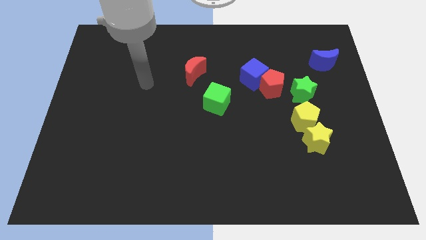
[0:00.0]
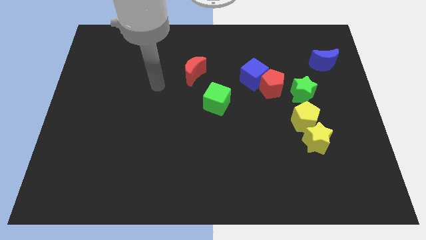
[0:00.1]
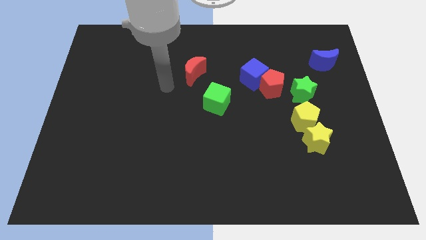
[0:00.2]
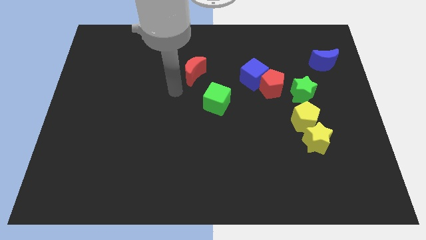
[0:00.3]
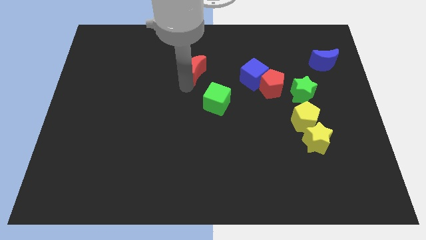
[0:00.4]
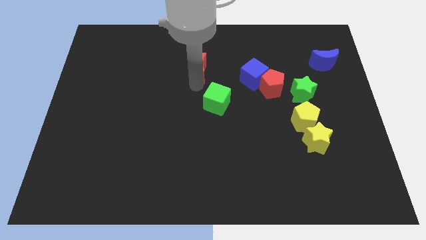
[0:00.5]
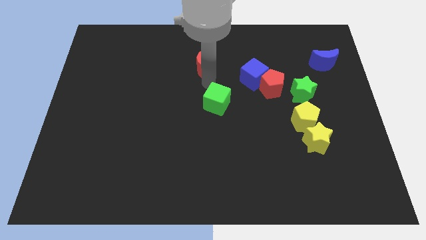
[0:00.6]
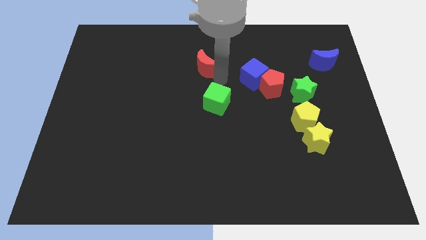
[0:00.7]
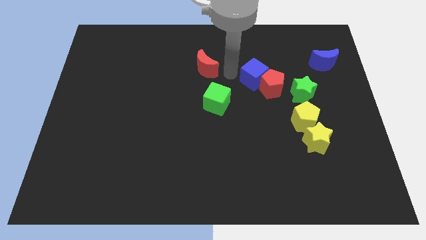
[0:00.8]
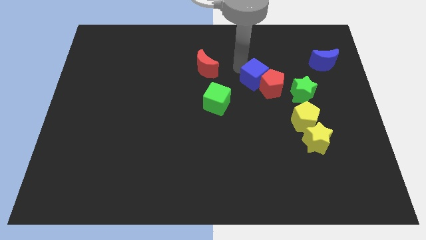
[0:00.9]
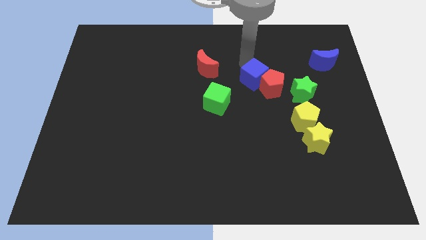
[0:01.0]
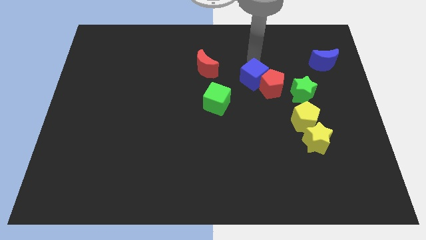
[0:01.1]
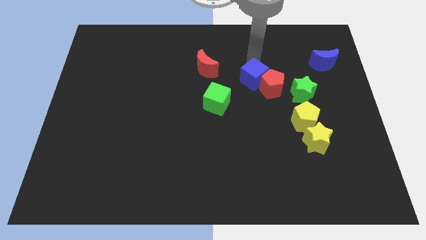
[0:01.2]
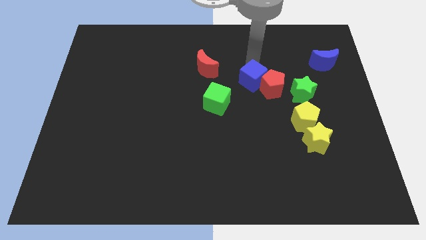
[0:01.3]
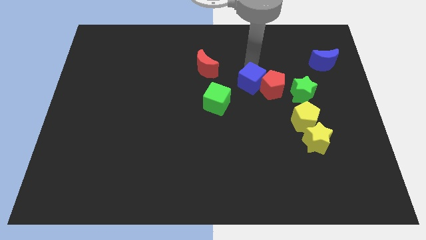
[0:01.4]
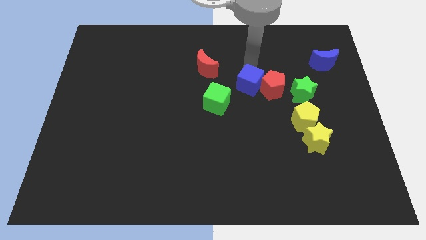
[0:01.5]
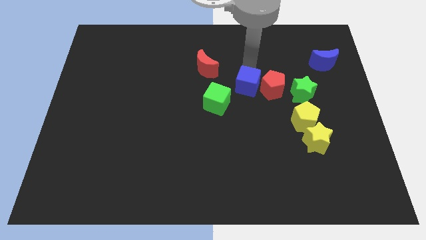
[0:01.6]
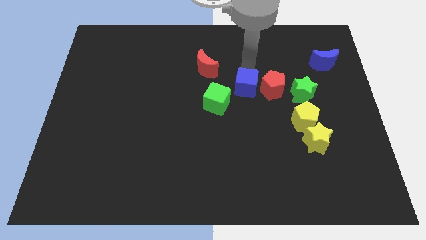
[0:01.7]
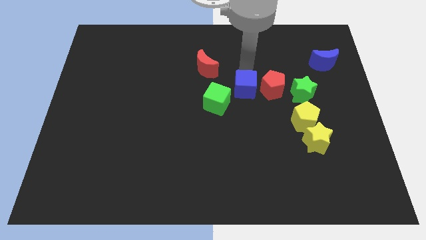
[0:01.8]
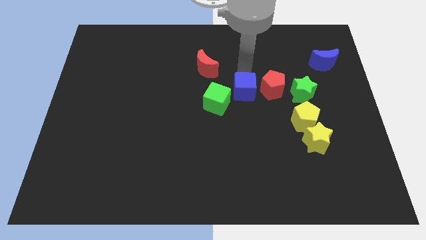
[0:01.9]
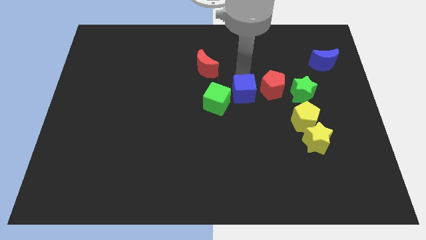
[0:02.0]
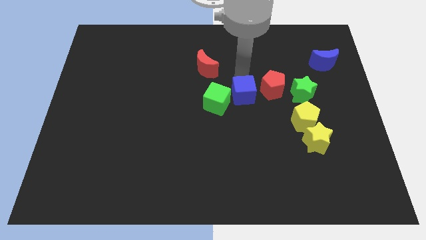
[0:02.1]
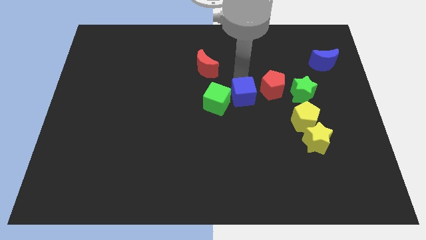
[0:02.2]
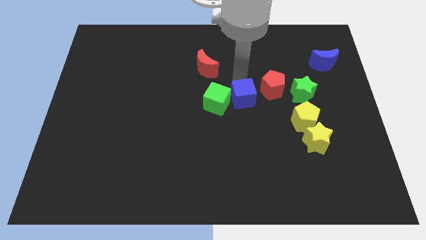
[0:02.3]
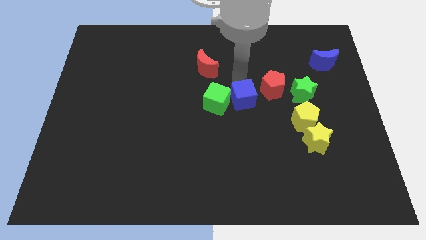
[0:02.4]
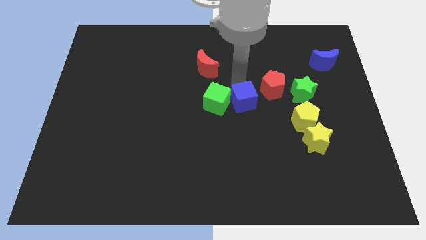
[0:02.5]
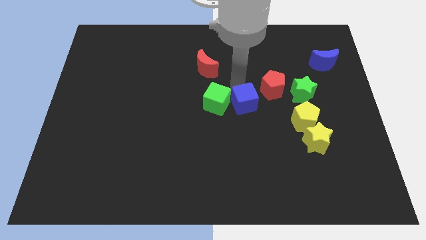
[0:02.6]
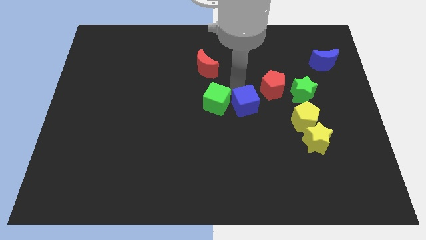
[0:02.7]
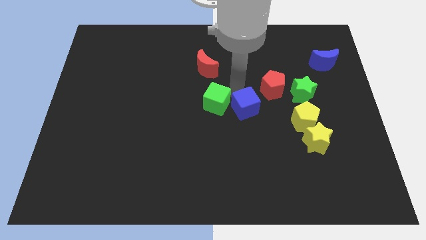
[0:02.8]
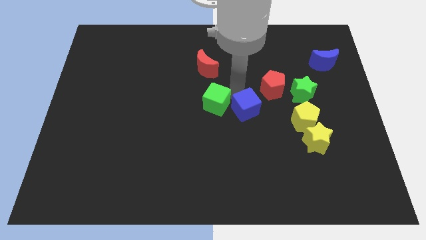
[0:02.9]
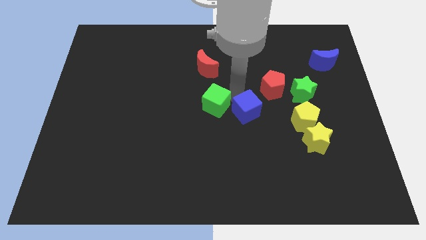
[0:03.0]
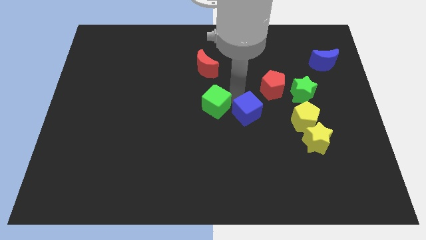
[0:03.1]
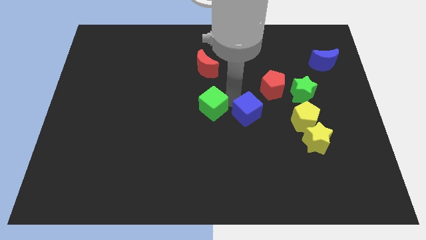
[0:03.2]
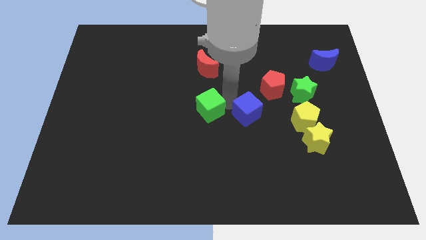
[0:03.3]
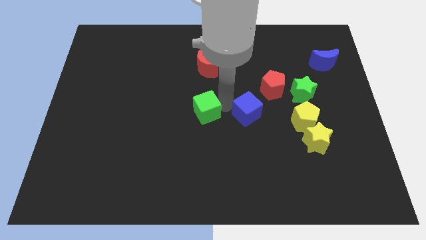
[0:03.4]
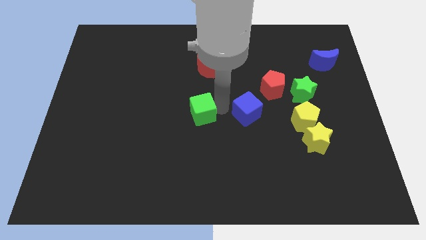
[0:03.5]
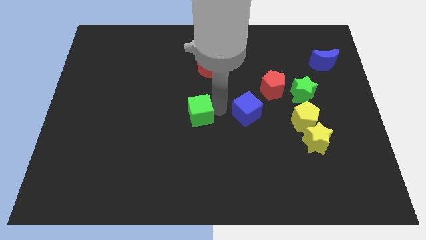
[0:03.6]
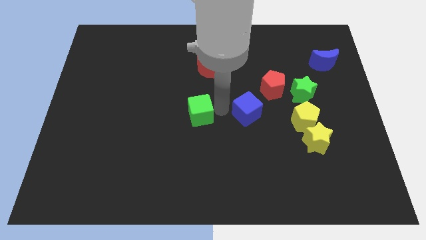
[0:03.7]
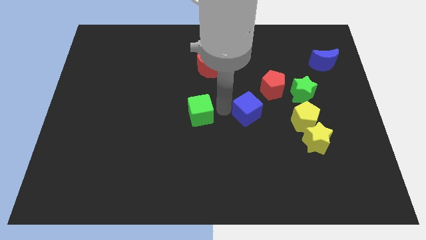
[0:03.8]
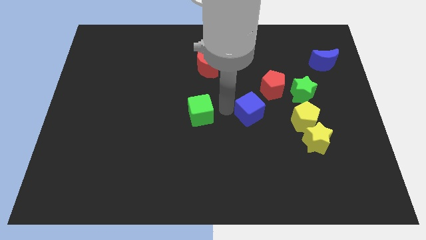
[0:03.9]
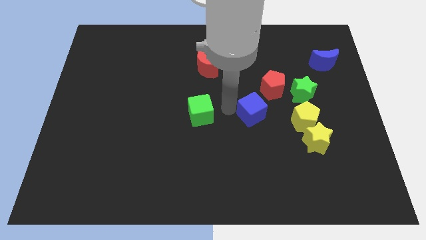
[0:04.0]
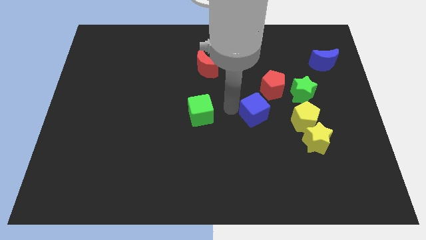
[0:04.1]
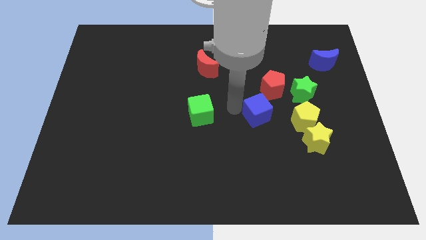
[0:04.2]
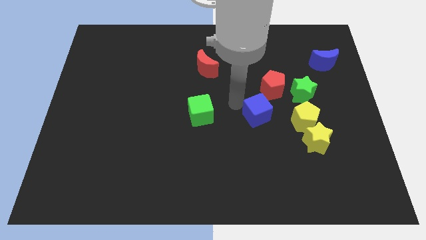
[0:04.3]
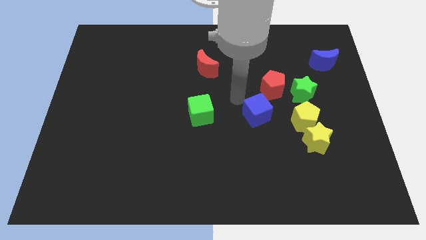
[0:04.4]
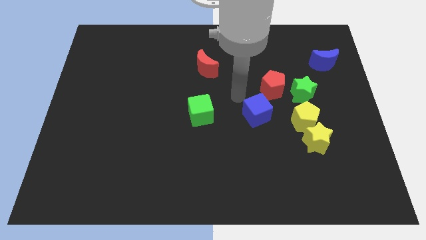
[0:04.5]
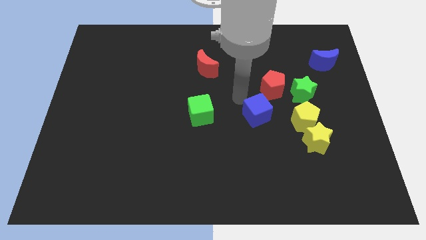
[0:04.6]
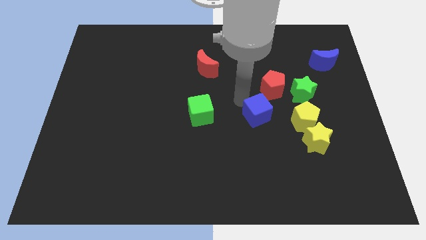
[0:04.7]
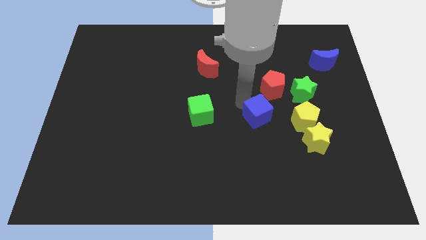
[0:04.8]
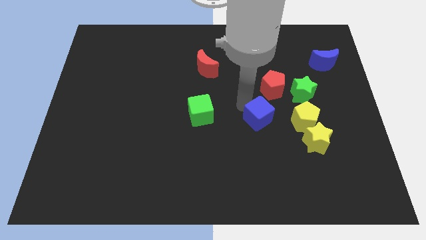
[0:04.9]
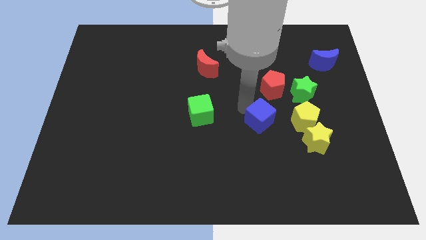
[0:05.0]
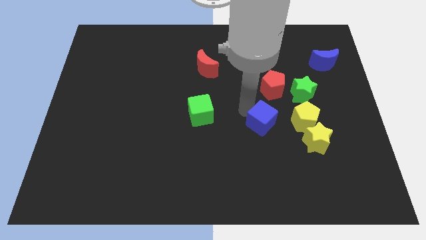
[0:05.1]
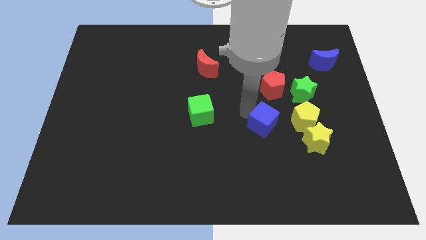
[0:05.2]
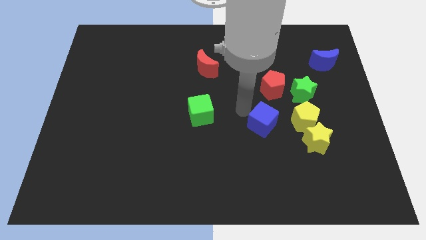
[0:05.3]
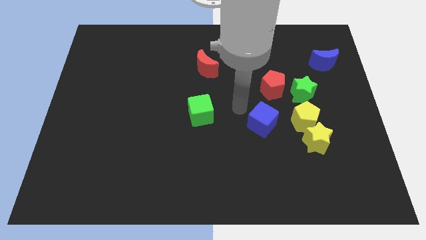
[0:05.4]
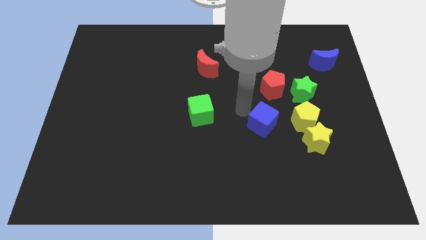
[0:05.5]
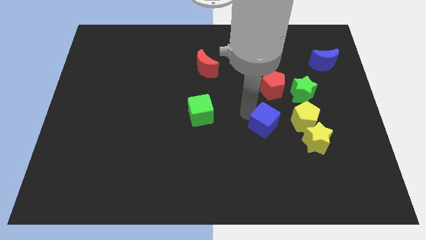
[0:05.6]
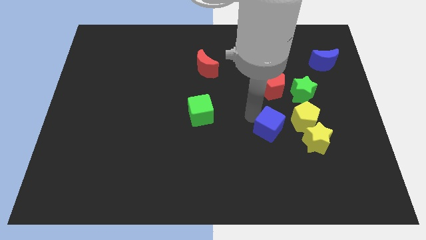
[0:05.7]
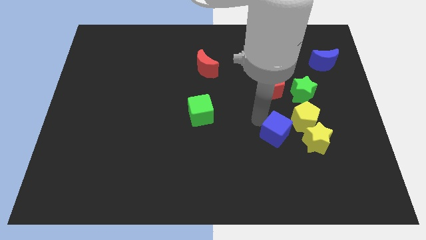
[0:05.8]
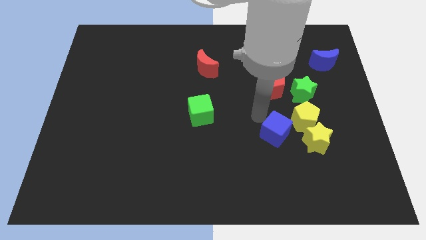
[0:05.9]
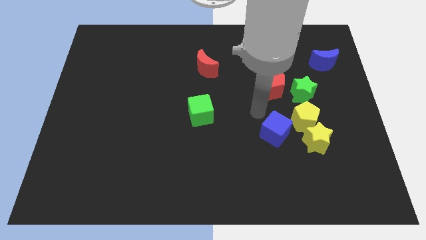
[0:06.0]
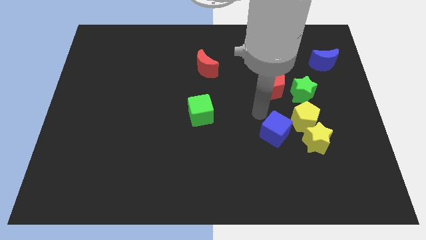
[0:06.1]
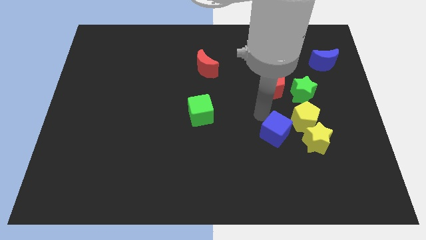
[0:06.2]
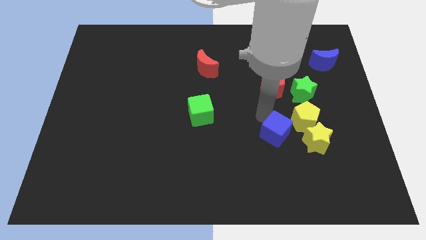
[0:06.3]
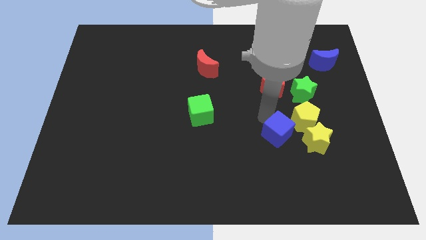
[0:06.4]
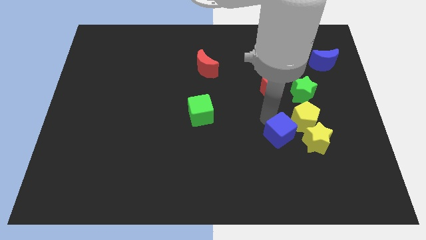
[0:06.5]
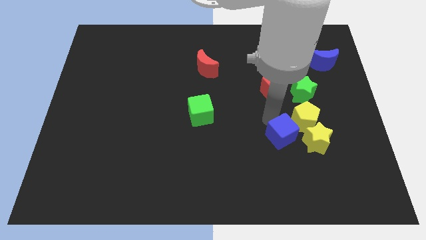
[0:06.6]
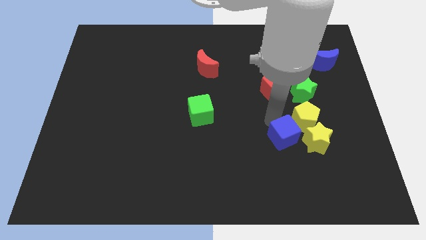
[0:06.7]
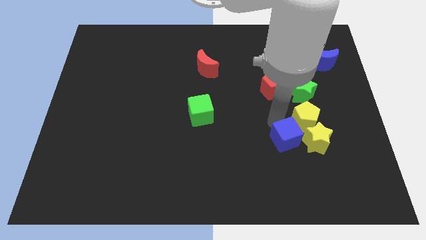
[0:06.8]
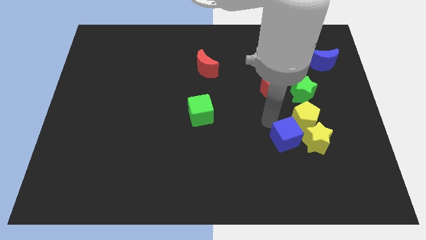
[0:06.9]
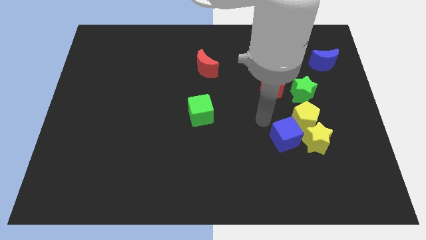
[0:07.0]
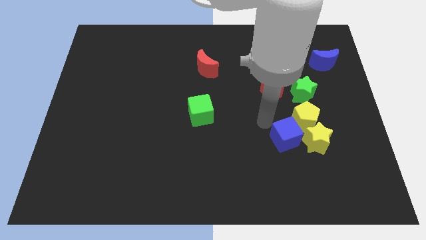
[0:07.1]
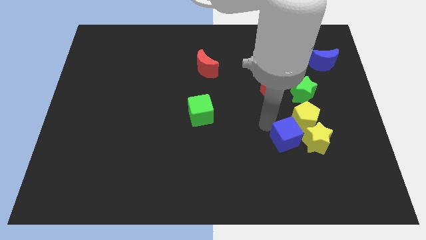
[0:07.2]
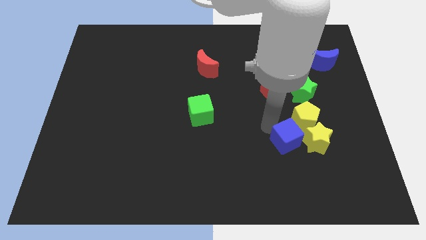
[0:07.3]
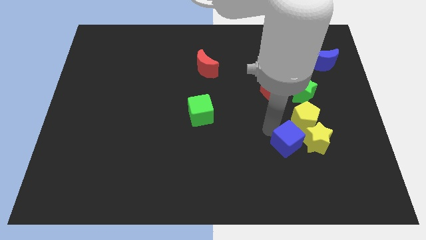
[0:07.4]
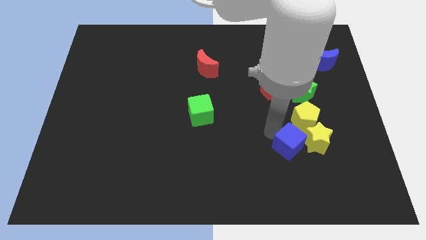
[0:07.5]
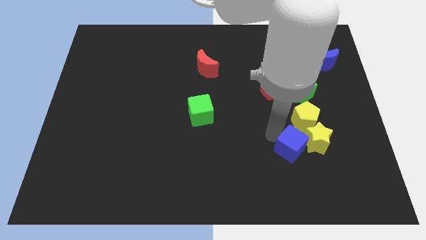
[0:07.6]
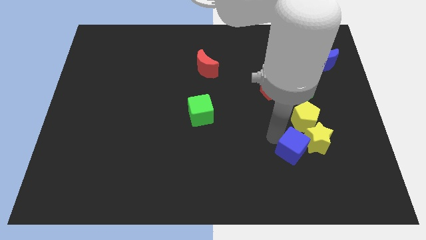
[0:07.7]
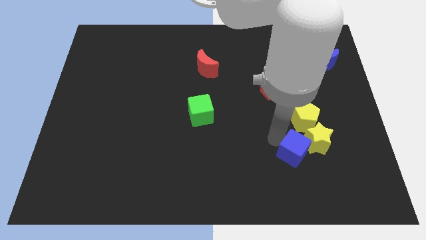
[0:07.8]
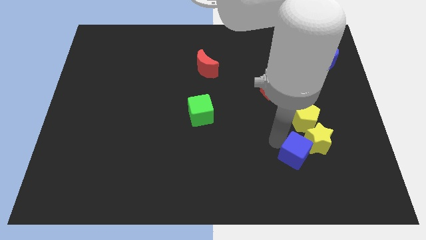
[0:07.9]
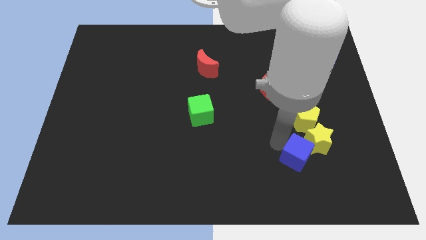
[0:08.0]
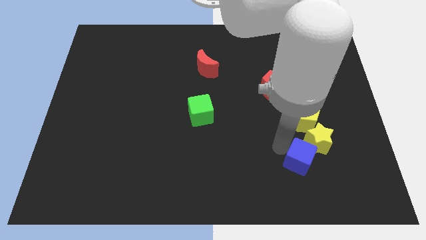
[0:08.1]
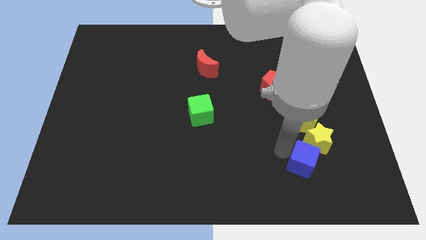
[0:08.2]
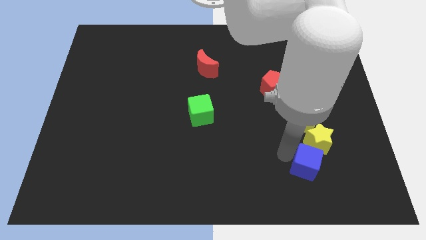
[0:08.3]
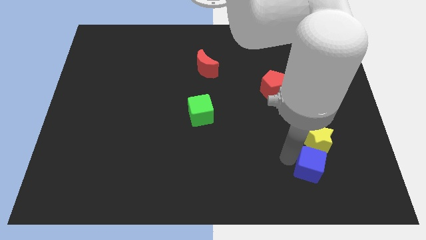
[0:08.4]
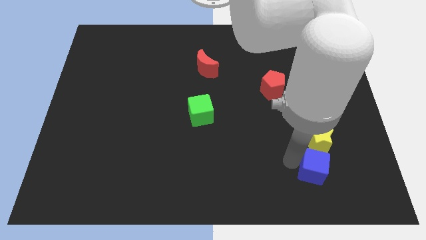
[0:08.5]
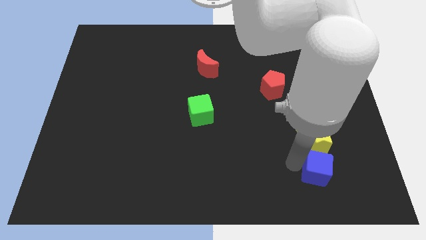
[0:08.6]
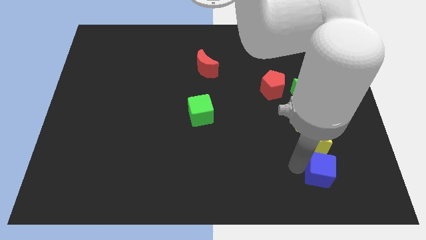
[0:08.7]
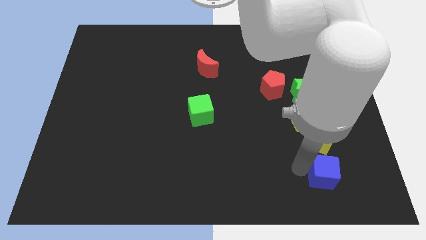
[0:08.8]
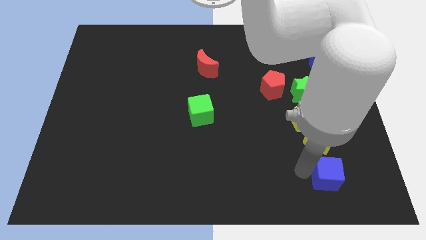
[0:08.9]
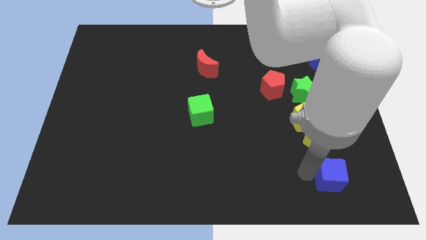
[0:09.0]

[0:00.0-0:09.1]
move the blue cube to the bottom right of the yellow star

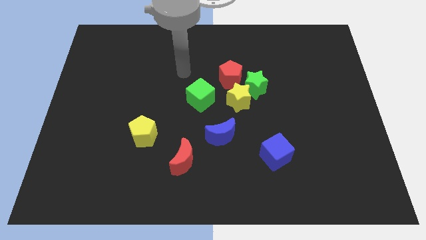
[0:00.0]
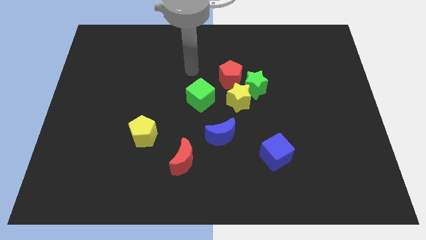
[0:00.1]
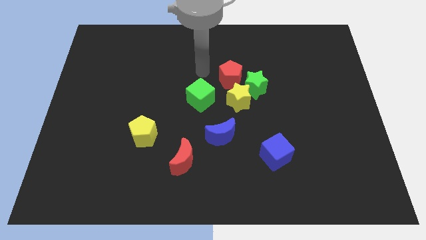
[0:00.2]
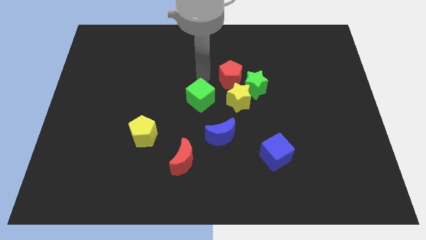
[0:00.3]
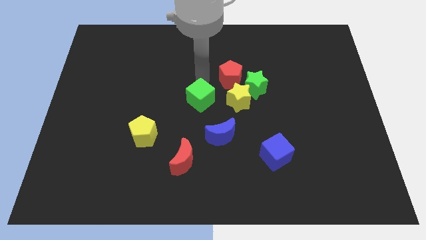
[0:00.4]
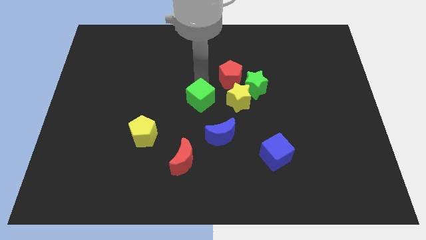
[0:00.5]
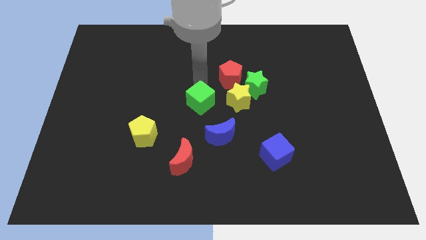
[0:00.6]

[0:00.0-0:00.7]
move the green cube diagonally up and to the left of the blue moon
